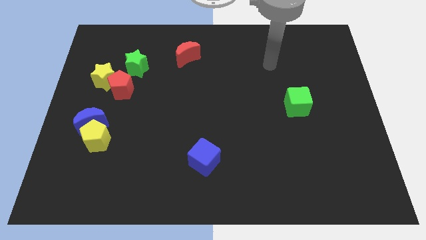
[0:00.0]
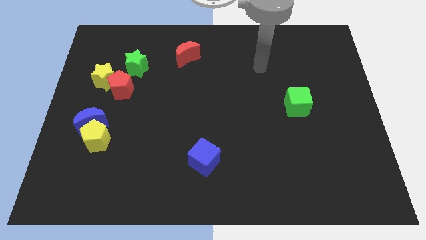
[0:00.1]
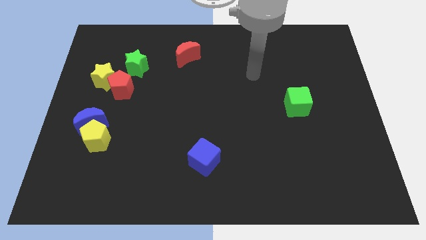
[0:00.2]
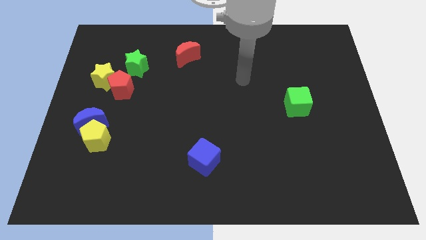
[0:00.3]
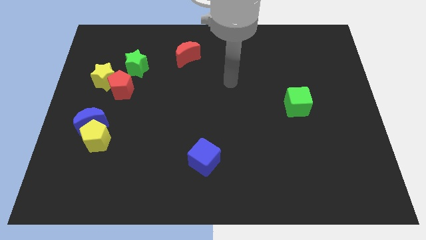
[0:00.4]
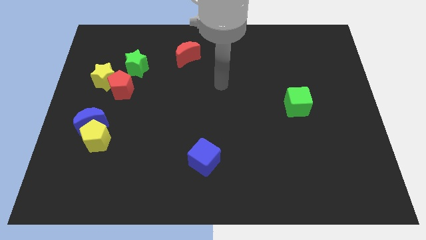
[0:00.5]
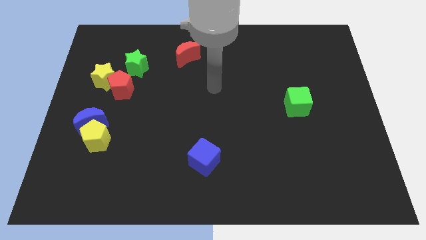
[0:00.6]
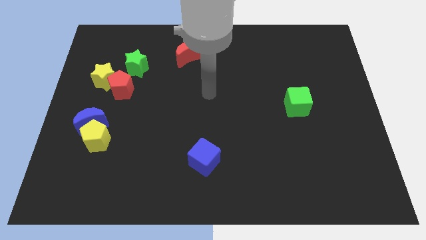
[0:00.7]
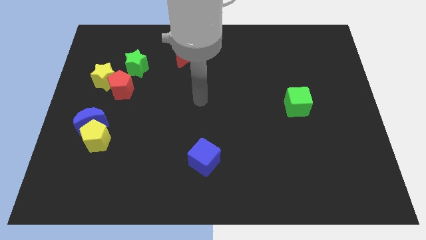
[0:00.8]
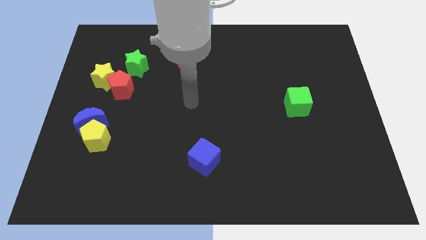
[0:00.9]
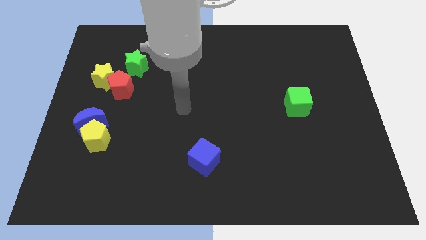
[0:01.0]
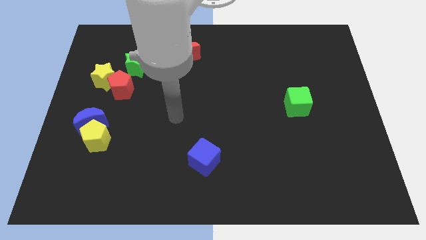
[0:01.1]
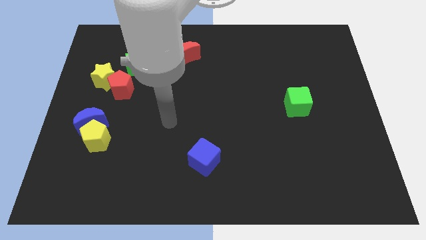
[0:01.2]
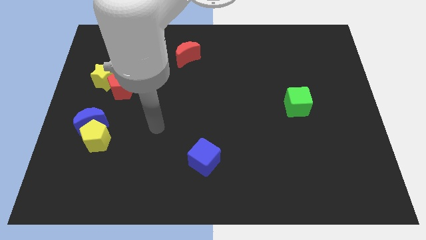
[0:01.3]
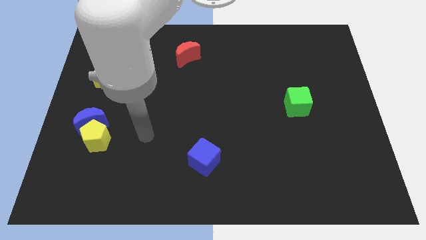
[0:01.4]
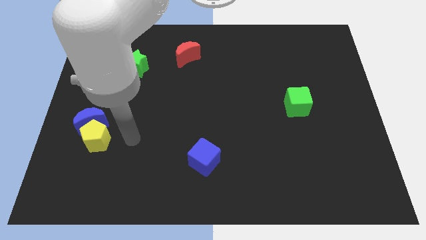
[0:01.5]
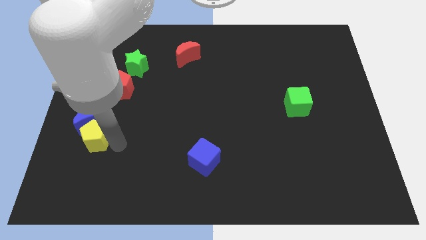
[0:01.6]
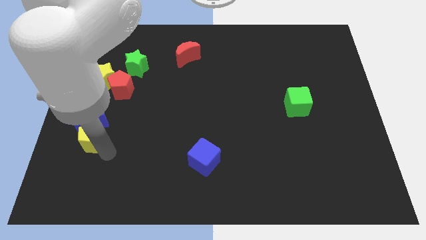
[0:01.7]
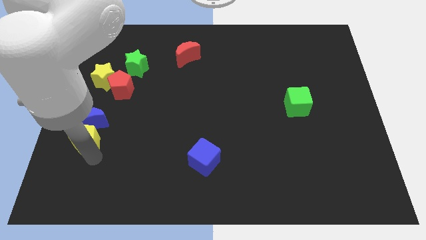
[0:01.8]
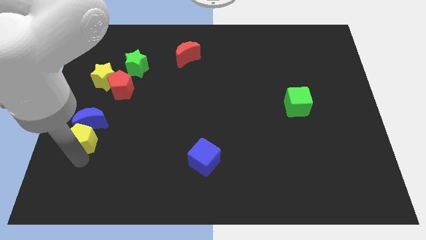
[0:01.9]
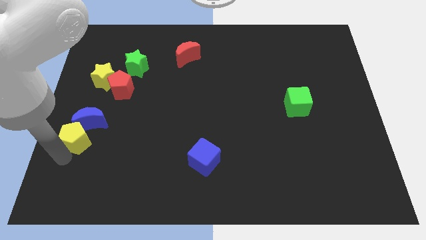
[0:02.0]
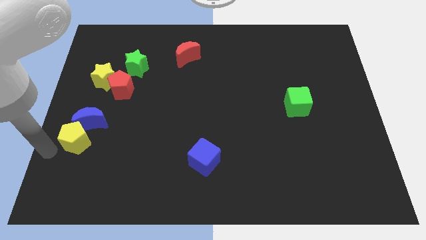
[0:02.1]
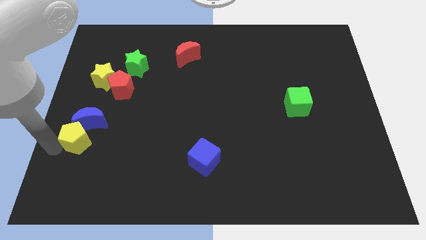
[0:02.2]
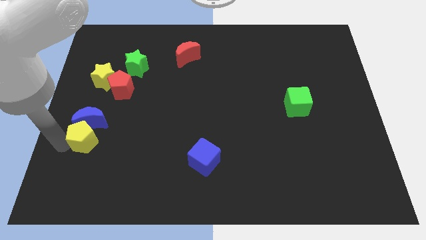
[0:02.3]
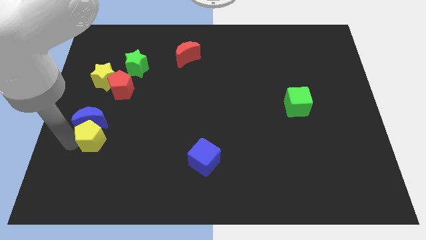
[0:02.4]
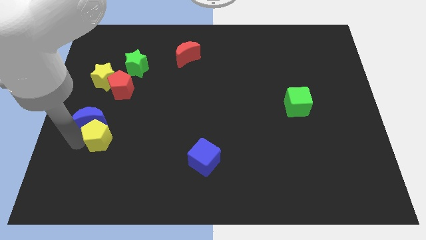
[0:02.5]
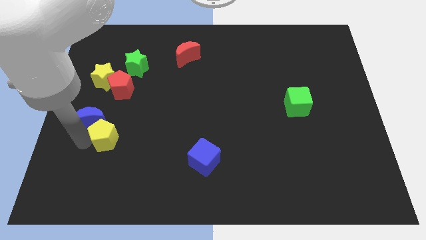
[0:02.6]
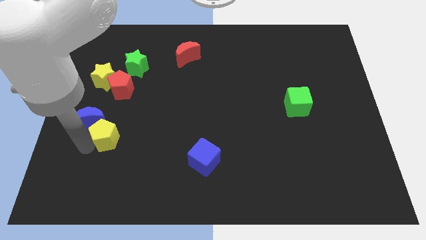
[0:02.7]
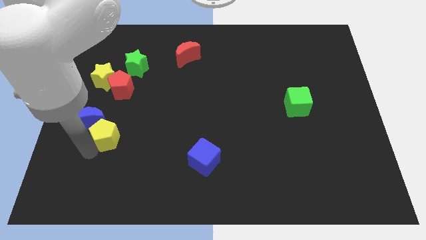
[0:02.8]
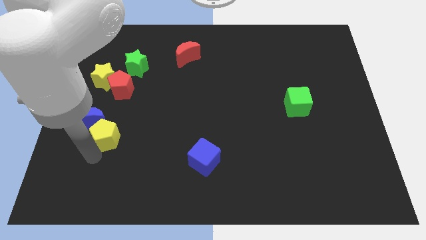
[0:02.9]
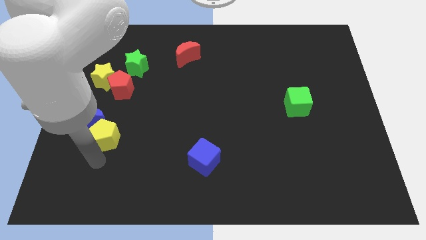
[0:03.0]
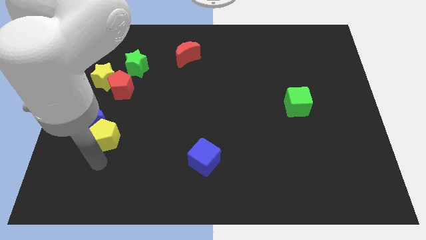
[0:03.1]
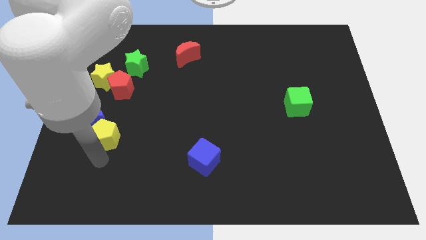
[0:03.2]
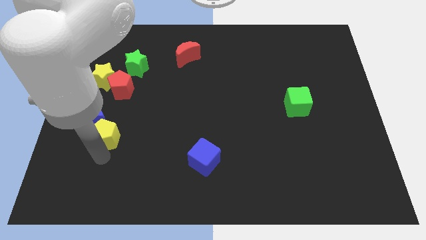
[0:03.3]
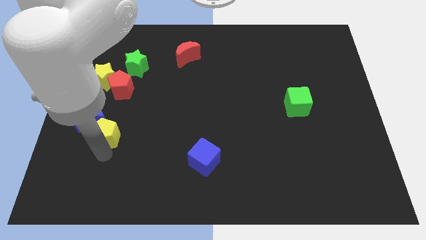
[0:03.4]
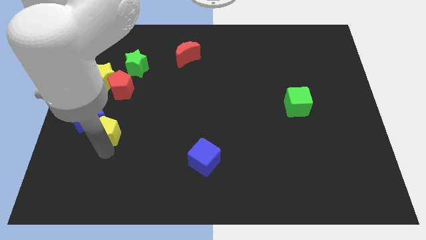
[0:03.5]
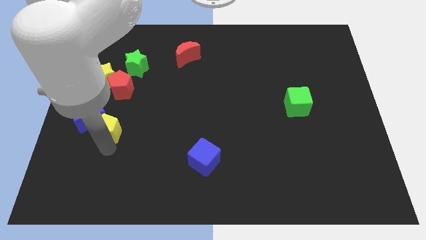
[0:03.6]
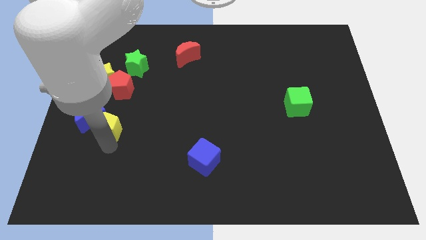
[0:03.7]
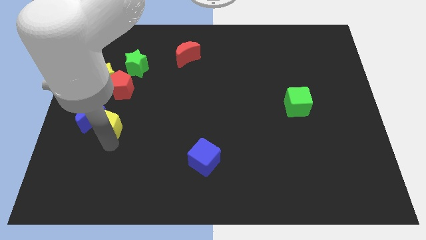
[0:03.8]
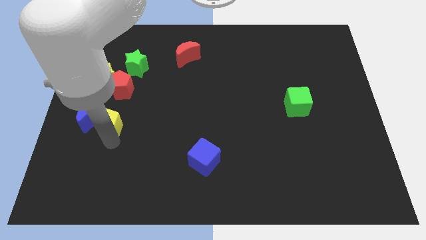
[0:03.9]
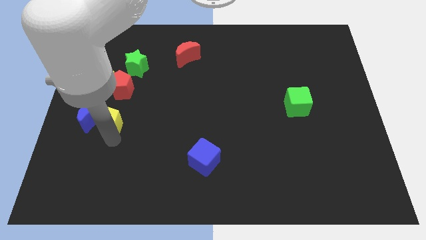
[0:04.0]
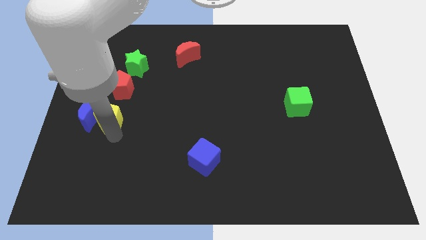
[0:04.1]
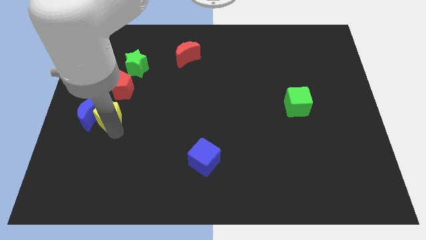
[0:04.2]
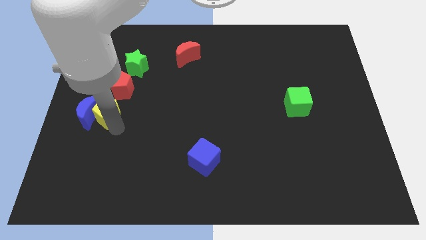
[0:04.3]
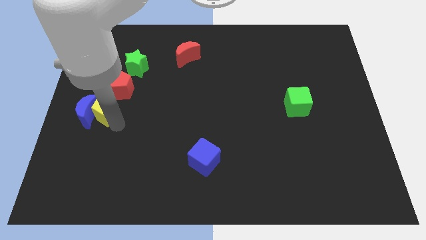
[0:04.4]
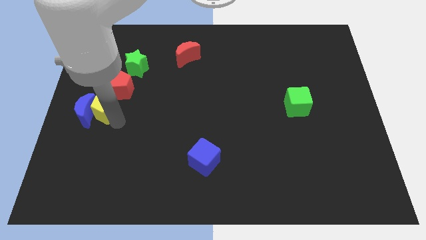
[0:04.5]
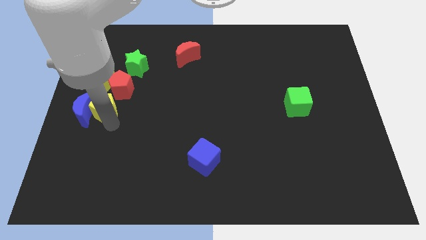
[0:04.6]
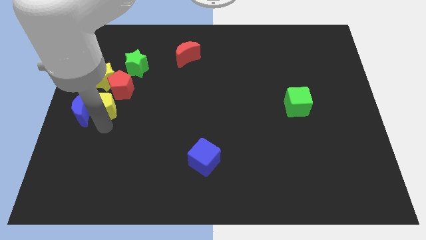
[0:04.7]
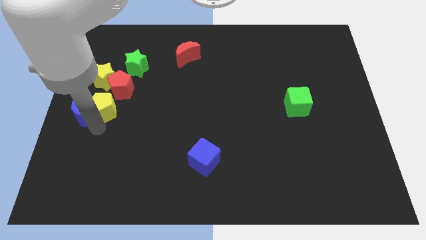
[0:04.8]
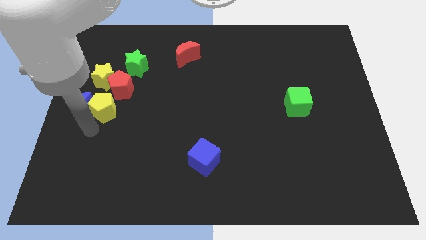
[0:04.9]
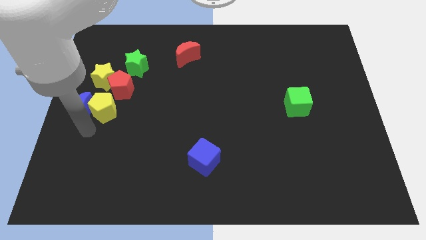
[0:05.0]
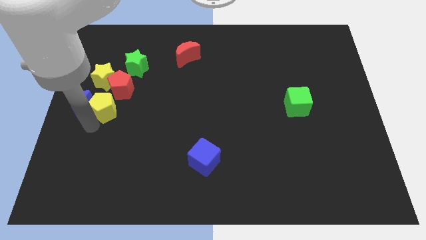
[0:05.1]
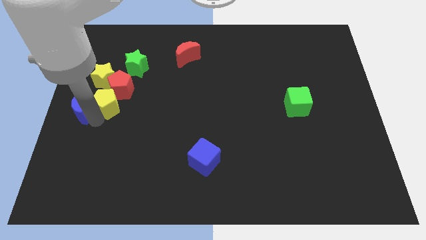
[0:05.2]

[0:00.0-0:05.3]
move the yellow pentagon close to the red pentagon

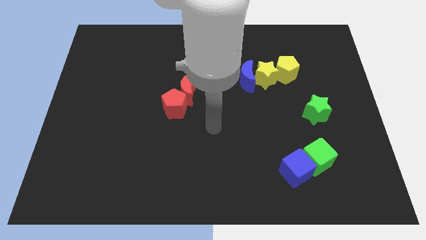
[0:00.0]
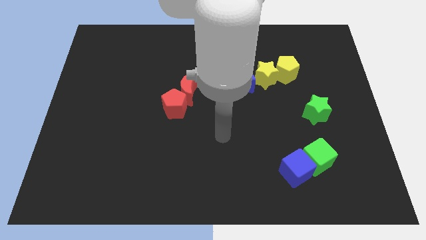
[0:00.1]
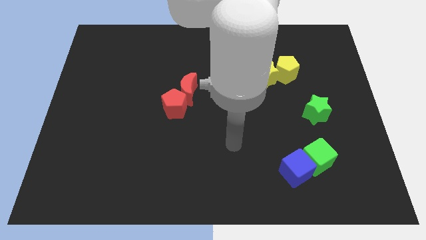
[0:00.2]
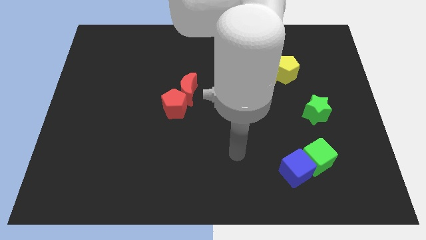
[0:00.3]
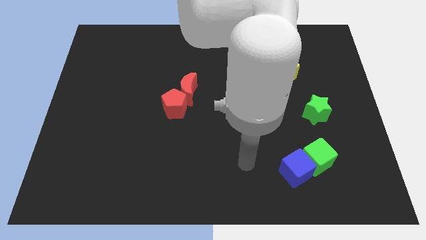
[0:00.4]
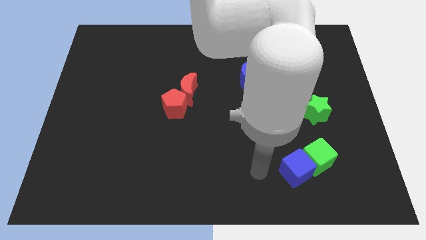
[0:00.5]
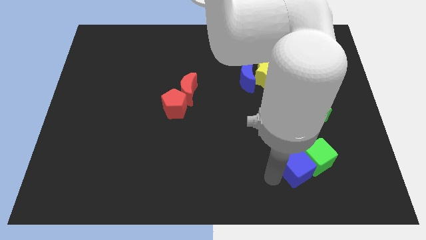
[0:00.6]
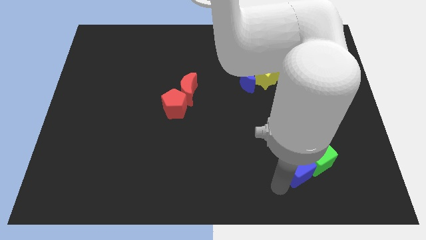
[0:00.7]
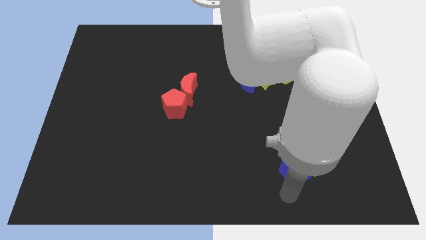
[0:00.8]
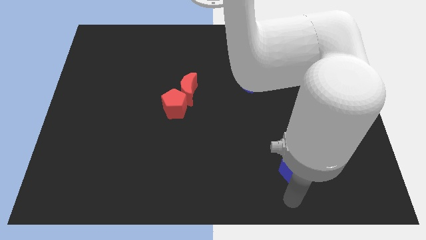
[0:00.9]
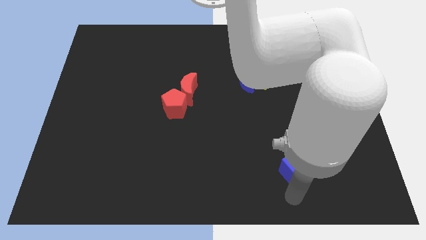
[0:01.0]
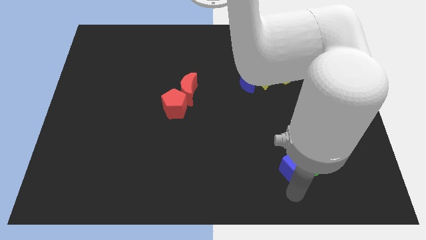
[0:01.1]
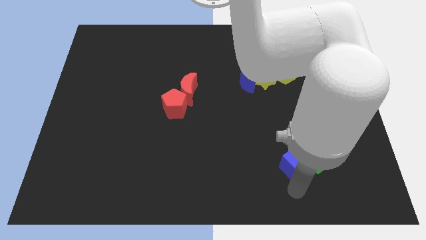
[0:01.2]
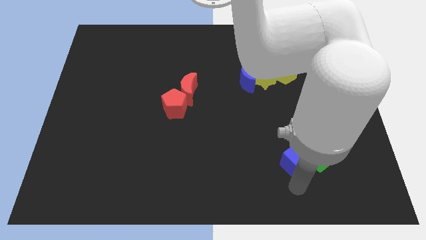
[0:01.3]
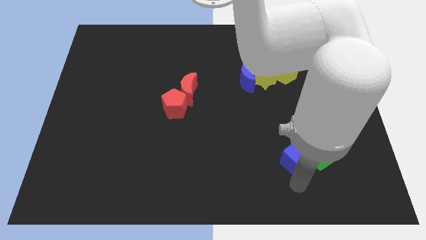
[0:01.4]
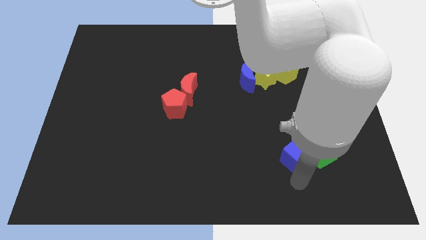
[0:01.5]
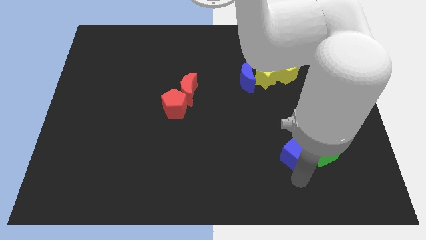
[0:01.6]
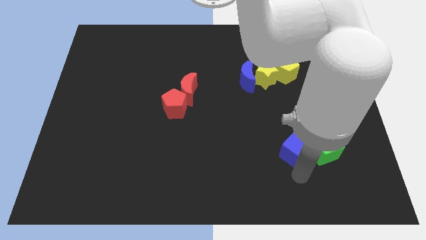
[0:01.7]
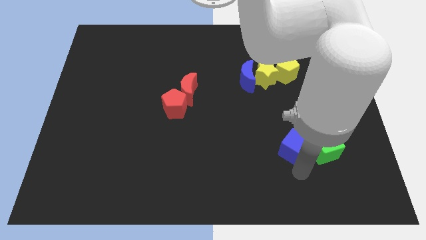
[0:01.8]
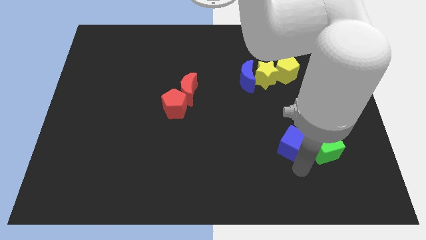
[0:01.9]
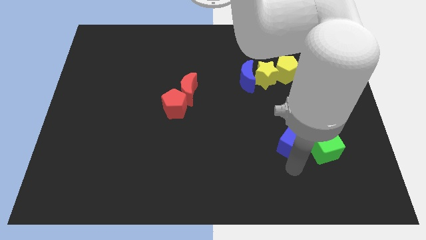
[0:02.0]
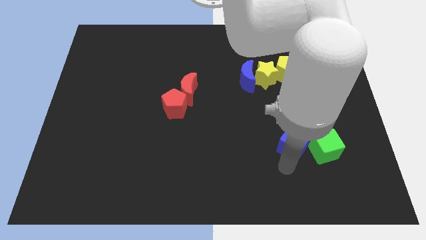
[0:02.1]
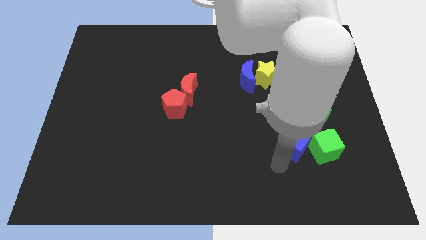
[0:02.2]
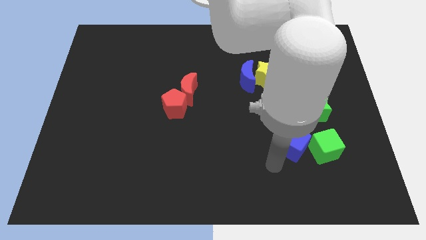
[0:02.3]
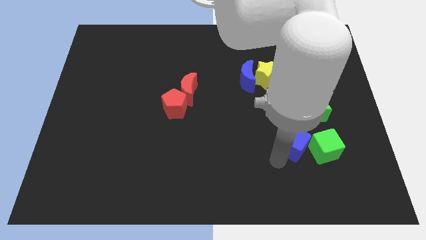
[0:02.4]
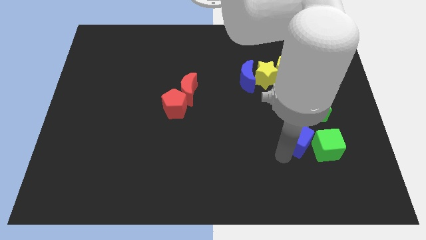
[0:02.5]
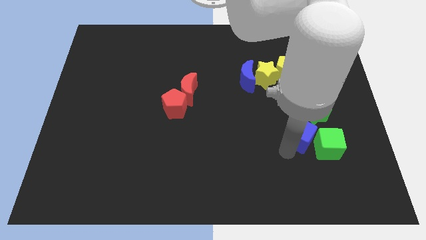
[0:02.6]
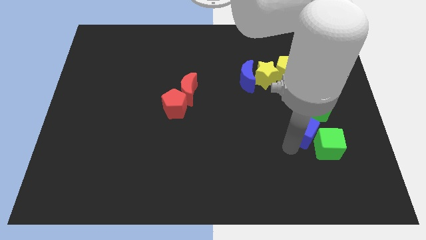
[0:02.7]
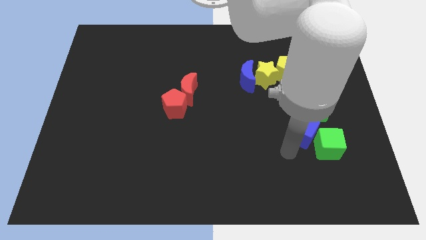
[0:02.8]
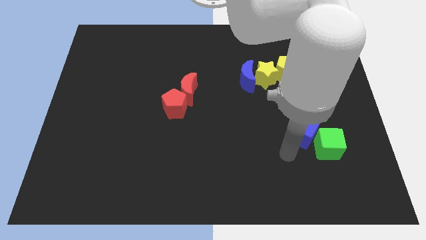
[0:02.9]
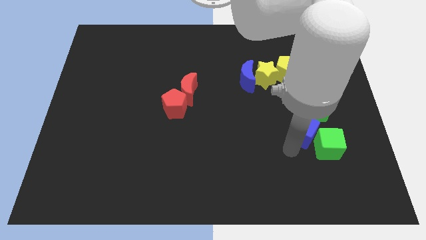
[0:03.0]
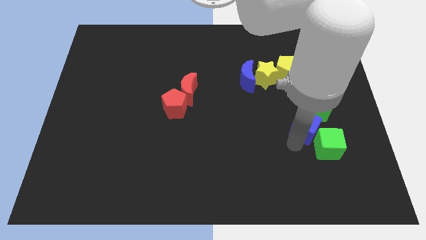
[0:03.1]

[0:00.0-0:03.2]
put the blue cube next to the green star
